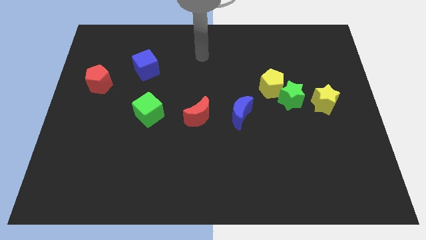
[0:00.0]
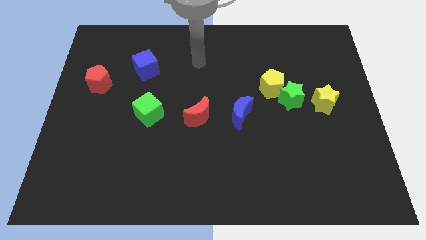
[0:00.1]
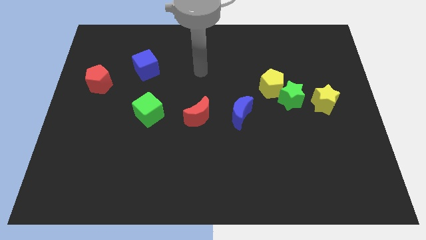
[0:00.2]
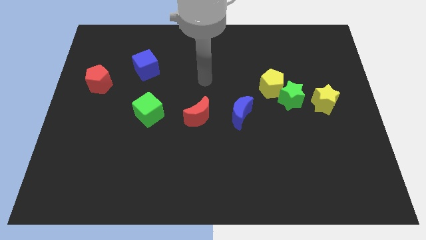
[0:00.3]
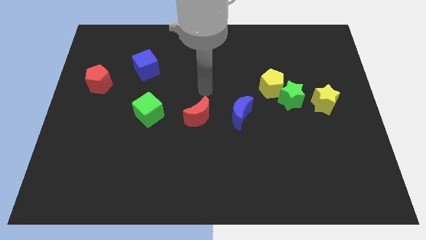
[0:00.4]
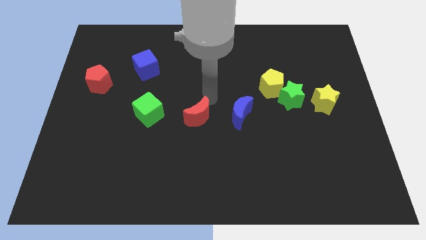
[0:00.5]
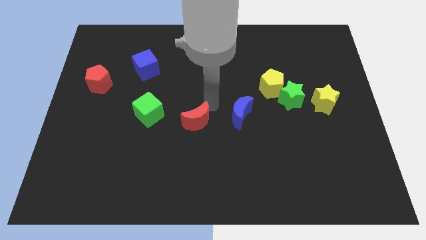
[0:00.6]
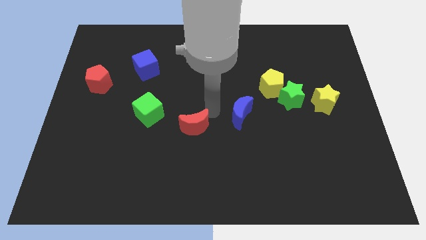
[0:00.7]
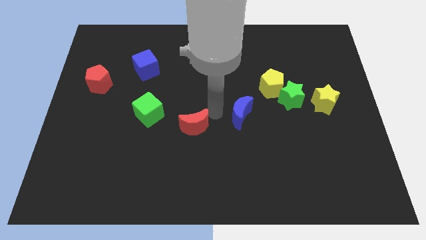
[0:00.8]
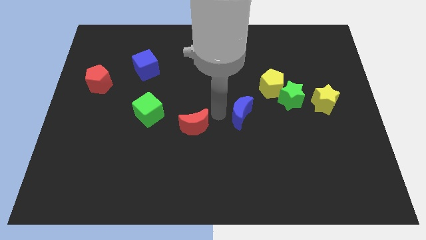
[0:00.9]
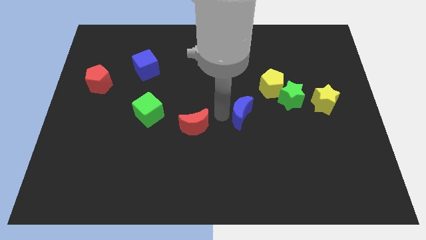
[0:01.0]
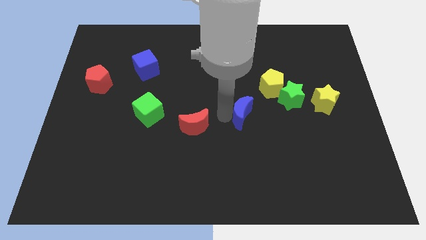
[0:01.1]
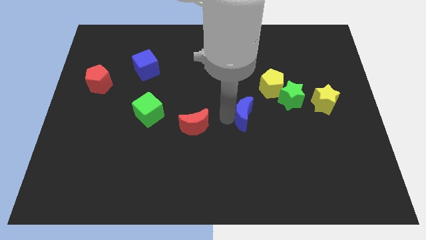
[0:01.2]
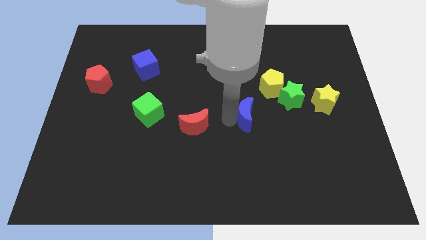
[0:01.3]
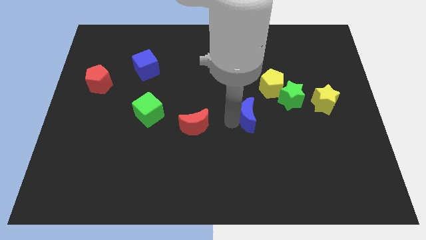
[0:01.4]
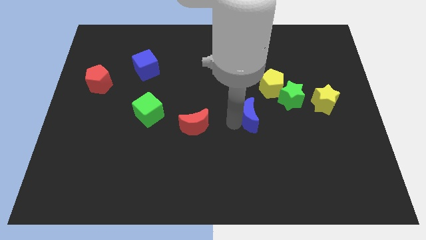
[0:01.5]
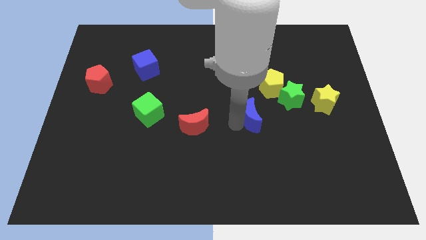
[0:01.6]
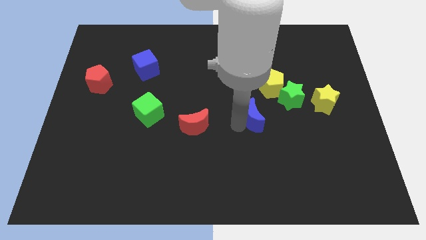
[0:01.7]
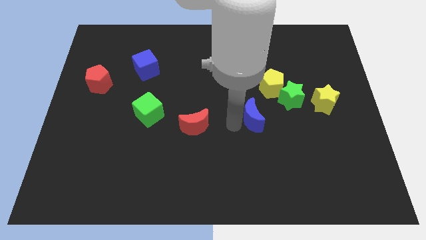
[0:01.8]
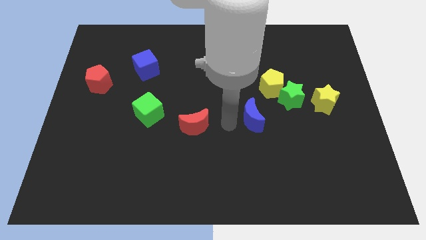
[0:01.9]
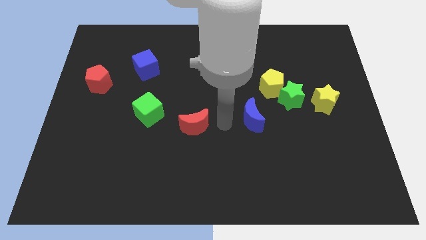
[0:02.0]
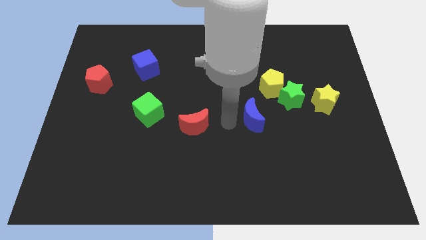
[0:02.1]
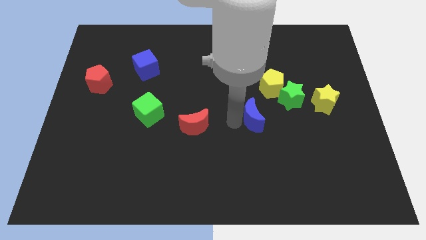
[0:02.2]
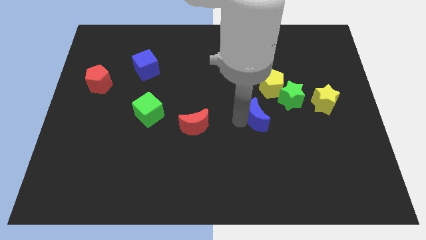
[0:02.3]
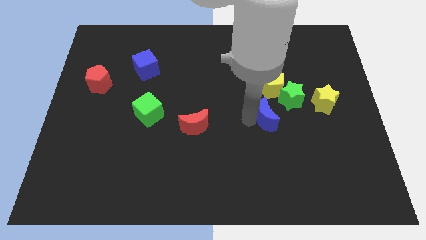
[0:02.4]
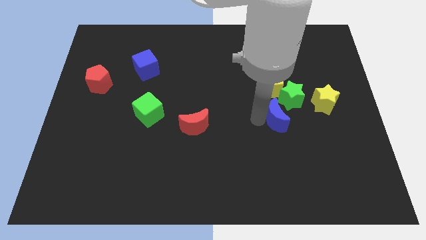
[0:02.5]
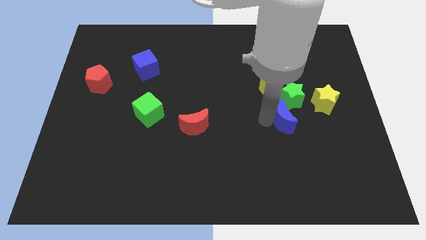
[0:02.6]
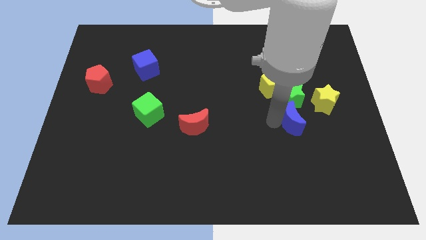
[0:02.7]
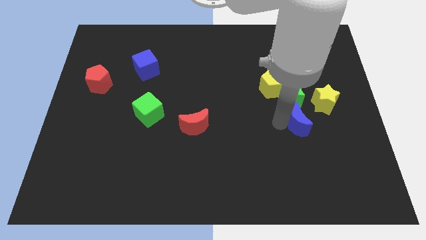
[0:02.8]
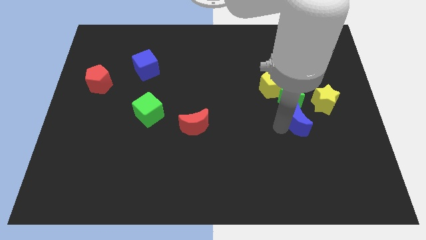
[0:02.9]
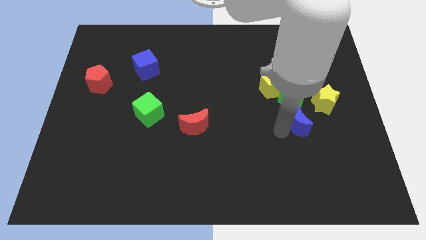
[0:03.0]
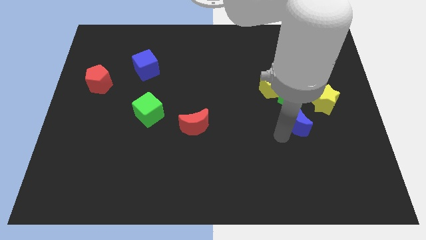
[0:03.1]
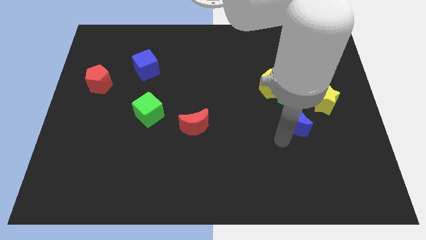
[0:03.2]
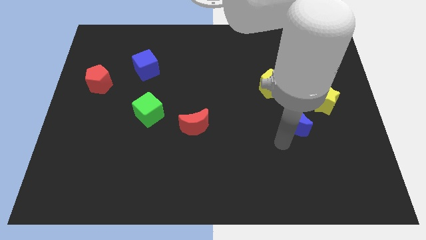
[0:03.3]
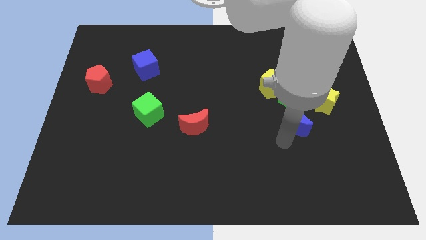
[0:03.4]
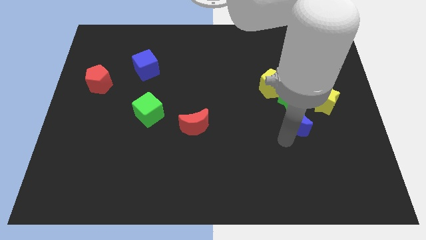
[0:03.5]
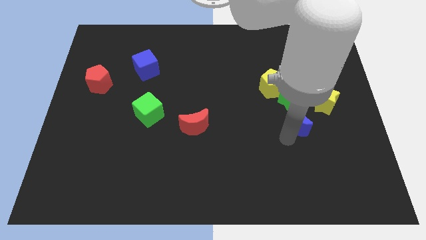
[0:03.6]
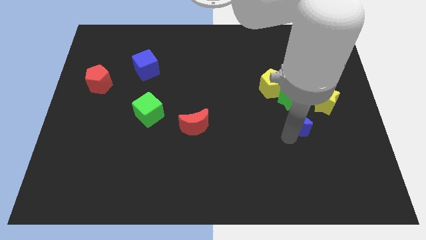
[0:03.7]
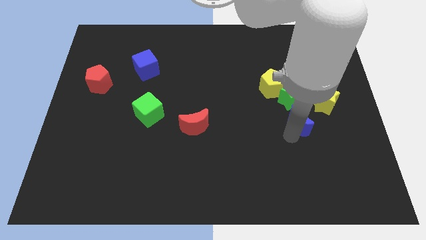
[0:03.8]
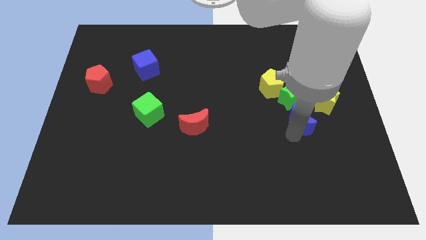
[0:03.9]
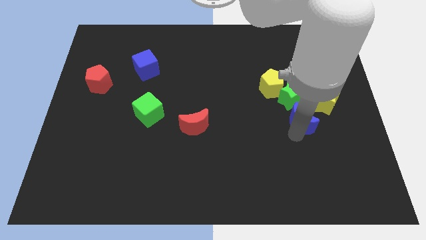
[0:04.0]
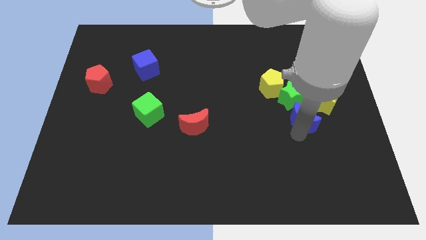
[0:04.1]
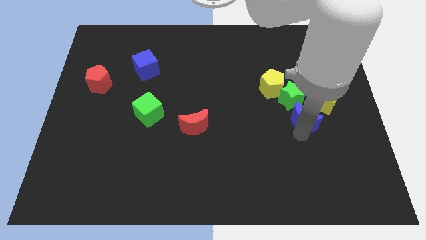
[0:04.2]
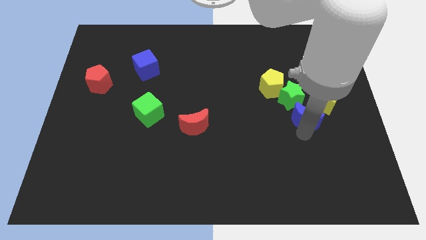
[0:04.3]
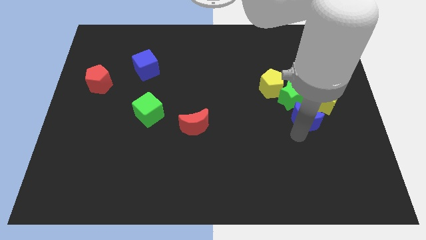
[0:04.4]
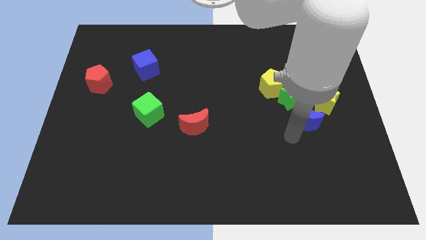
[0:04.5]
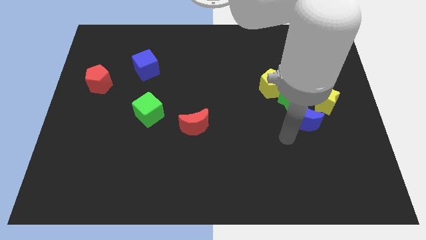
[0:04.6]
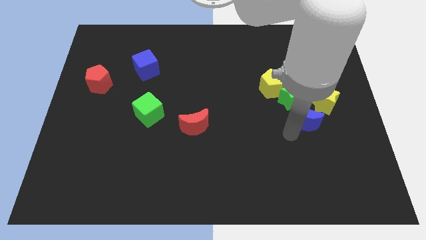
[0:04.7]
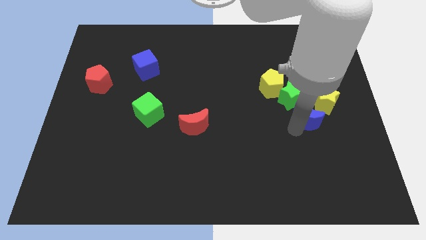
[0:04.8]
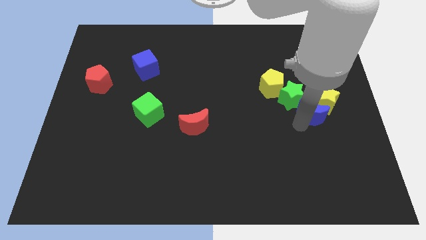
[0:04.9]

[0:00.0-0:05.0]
push the blue moon next to the yellow star

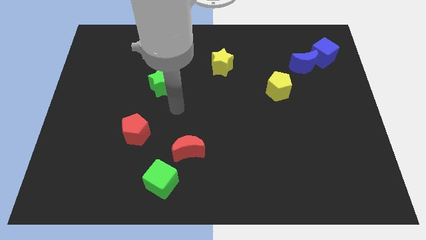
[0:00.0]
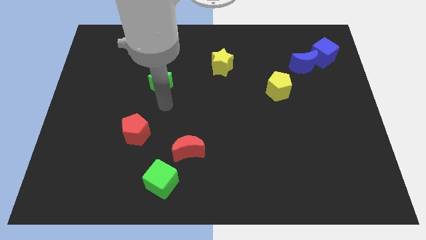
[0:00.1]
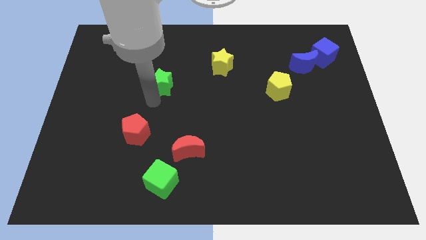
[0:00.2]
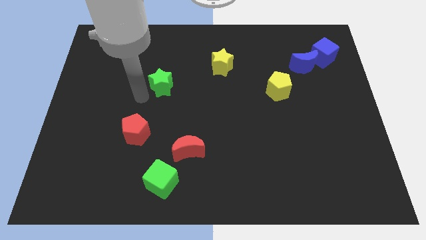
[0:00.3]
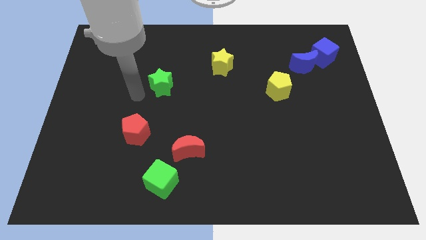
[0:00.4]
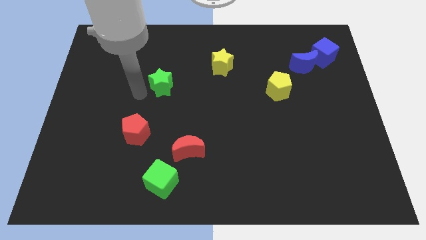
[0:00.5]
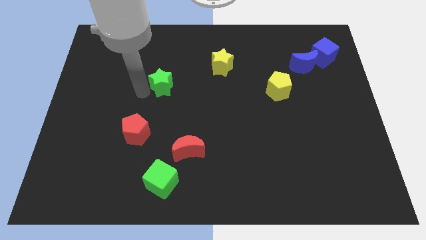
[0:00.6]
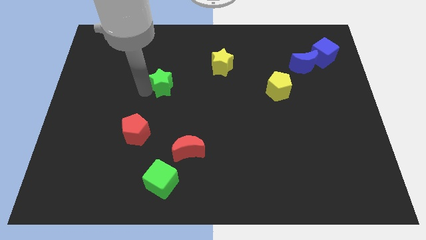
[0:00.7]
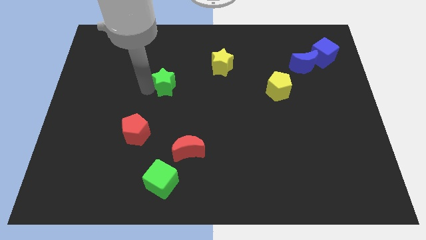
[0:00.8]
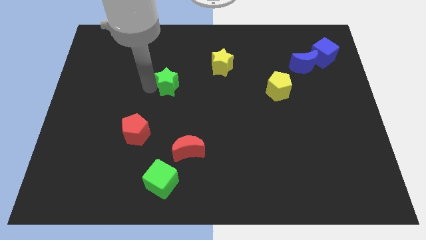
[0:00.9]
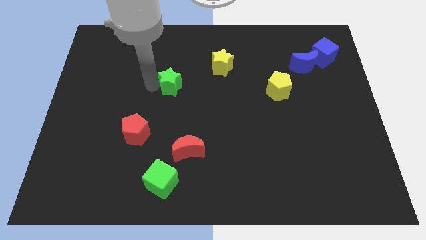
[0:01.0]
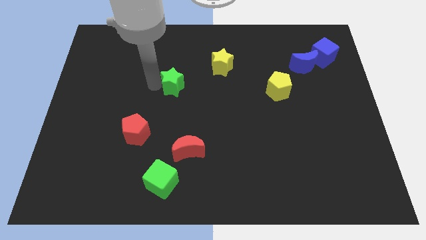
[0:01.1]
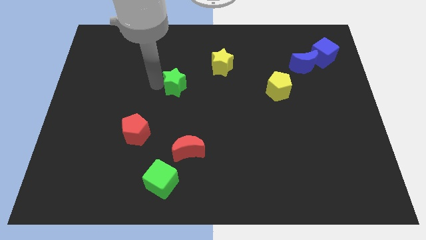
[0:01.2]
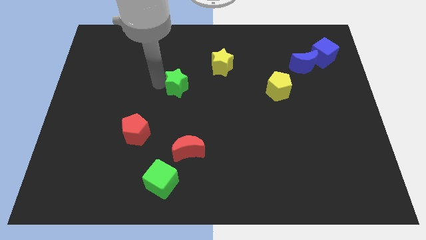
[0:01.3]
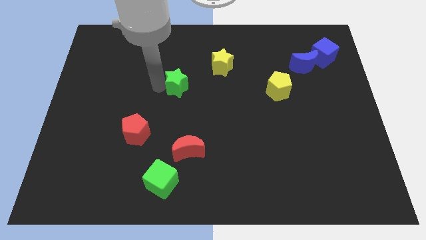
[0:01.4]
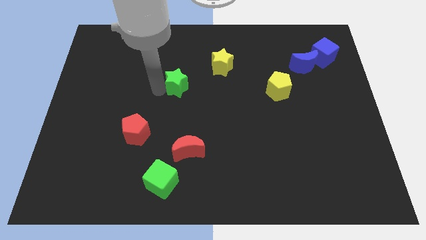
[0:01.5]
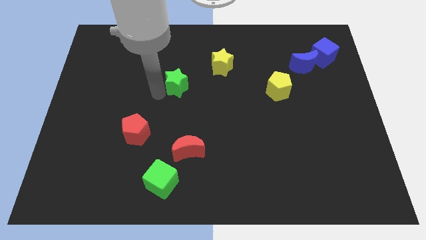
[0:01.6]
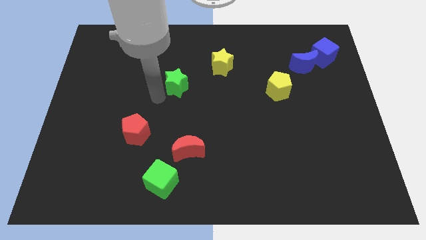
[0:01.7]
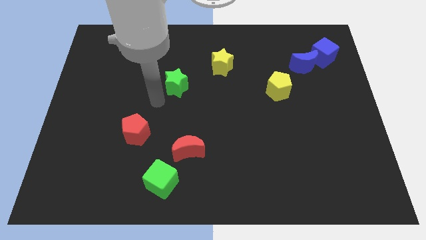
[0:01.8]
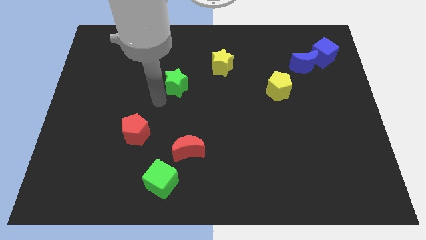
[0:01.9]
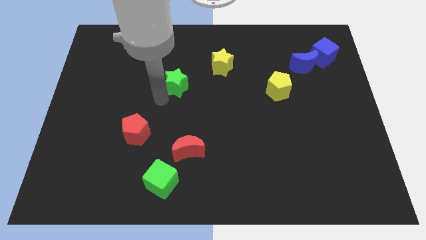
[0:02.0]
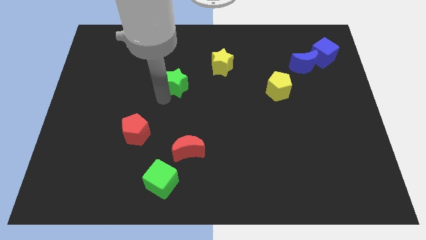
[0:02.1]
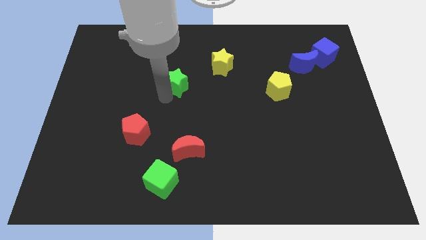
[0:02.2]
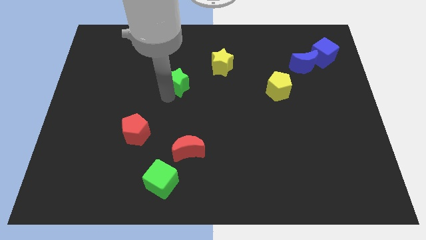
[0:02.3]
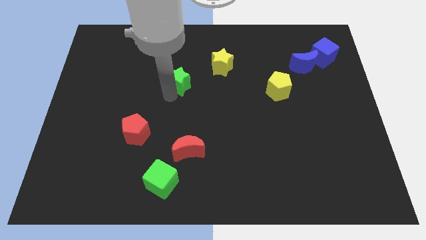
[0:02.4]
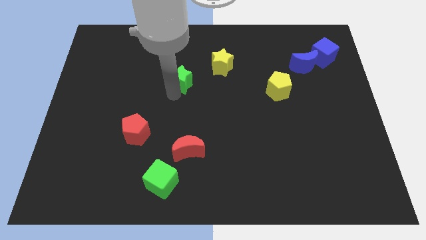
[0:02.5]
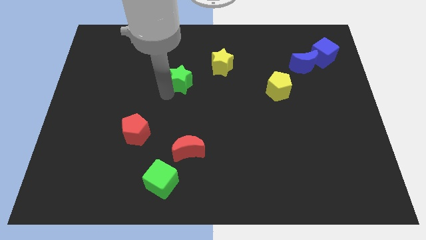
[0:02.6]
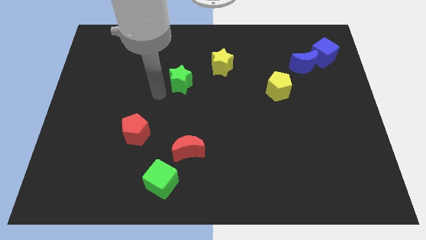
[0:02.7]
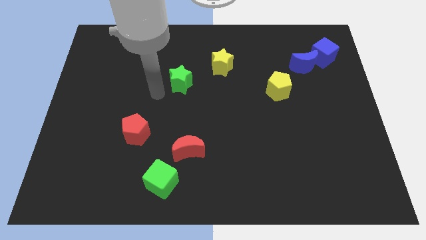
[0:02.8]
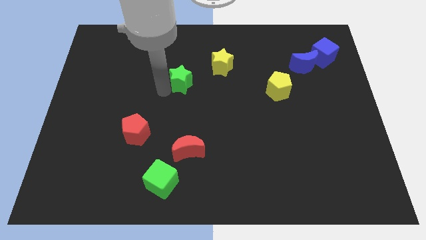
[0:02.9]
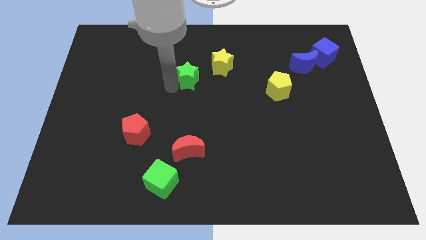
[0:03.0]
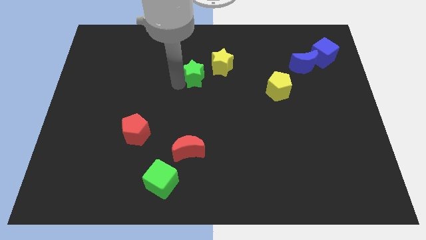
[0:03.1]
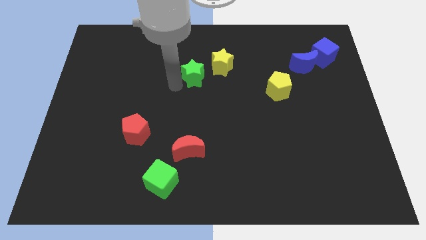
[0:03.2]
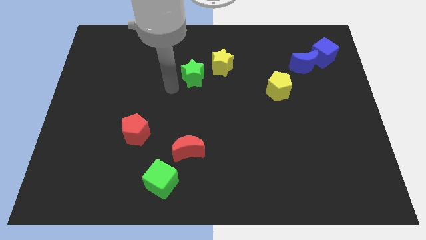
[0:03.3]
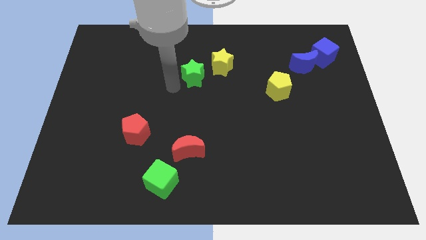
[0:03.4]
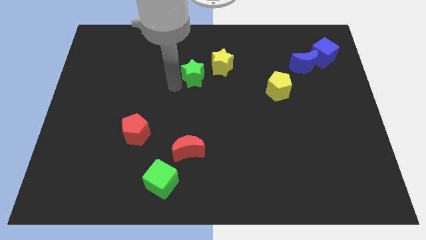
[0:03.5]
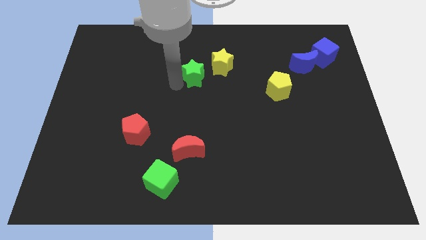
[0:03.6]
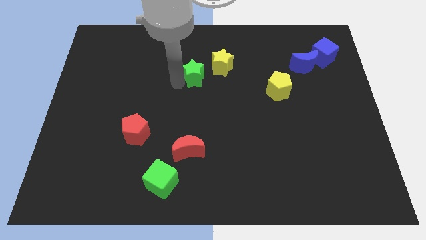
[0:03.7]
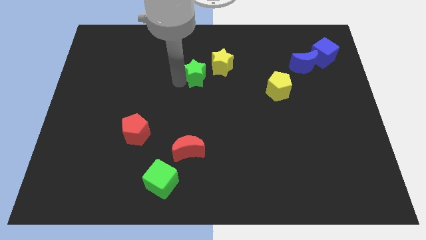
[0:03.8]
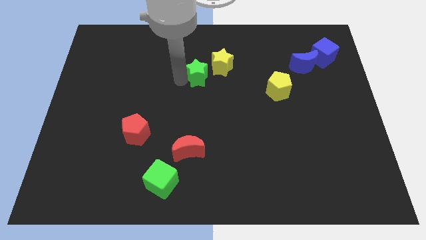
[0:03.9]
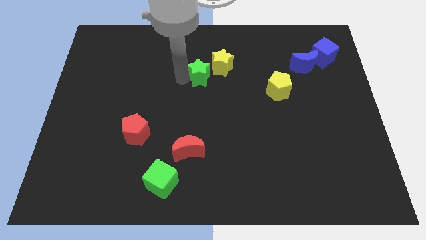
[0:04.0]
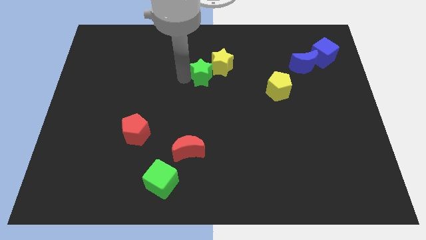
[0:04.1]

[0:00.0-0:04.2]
push the green star next to the yellow star
